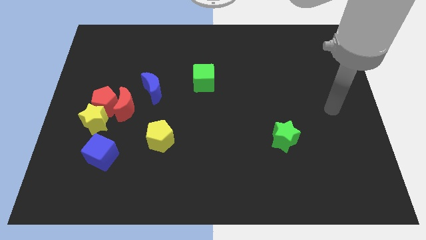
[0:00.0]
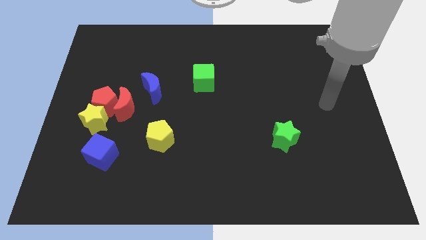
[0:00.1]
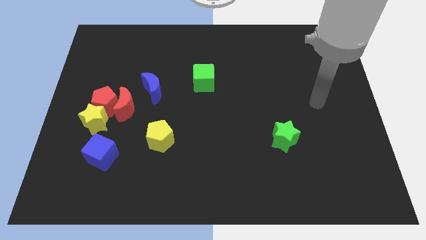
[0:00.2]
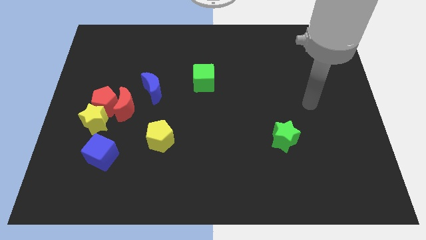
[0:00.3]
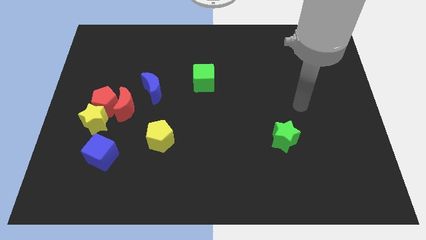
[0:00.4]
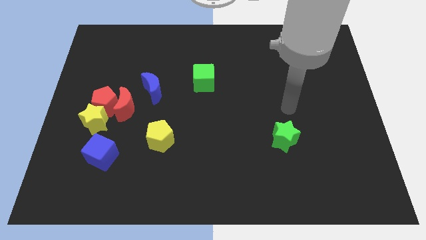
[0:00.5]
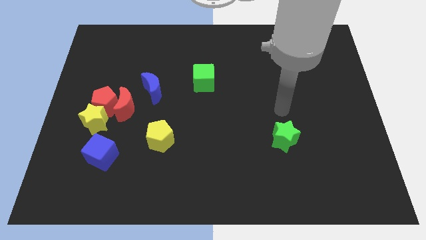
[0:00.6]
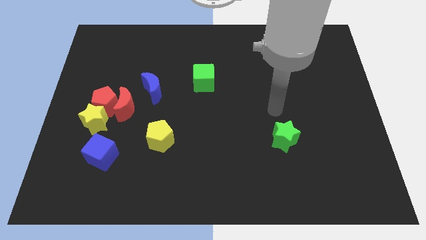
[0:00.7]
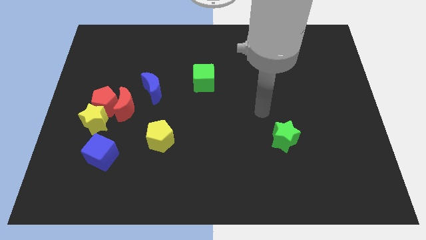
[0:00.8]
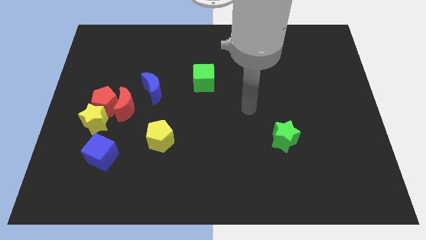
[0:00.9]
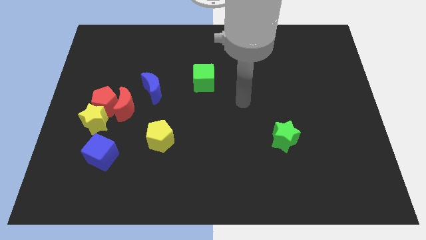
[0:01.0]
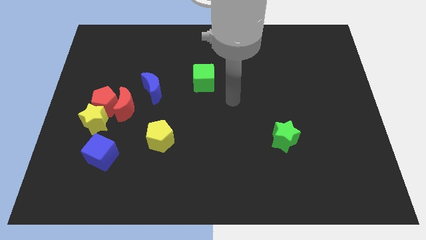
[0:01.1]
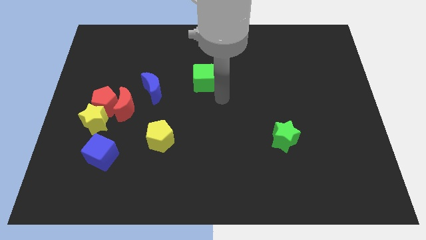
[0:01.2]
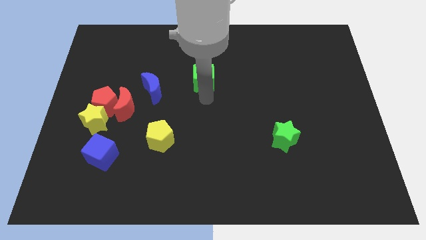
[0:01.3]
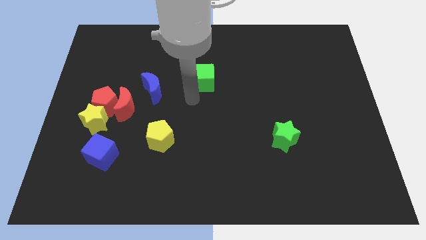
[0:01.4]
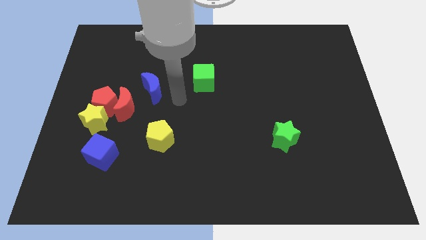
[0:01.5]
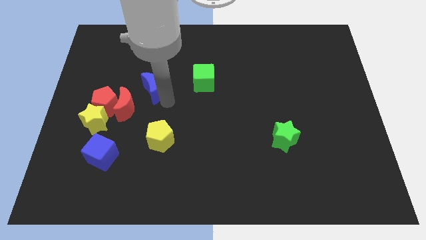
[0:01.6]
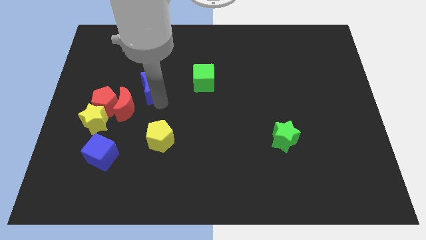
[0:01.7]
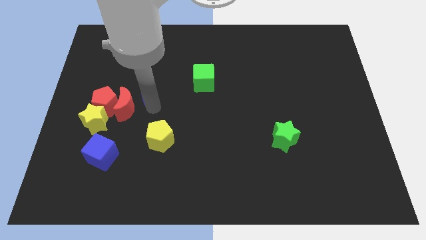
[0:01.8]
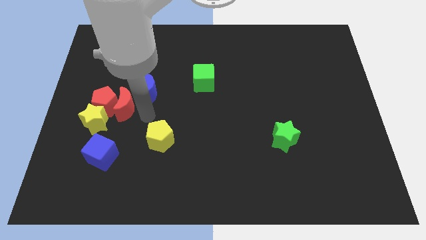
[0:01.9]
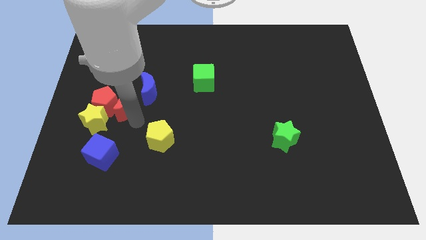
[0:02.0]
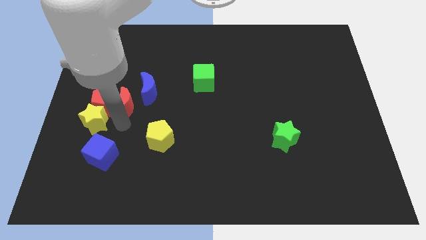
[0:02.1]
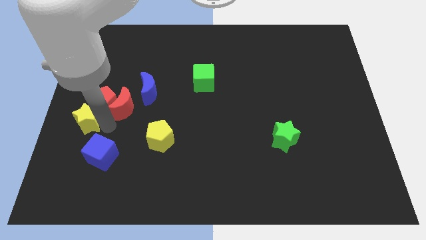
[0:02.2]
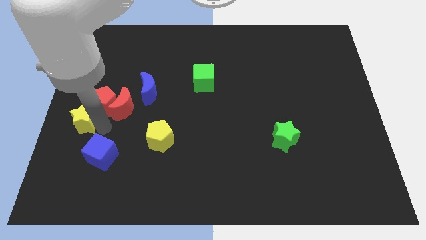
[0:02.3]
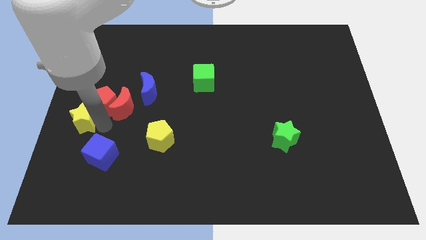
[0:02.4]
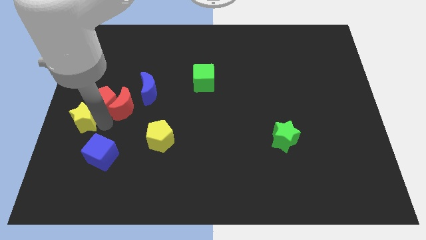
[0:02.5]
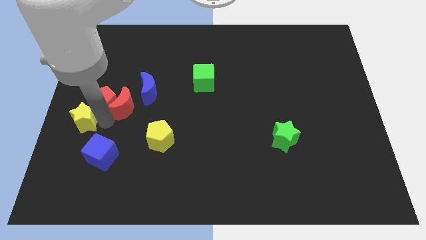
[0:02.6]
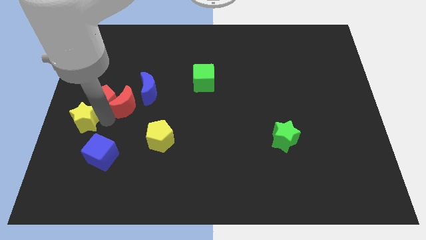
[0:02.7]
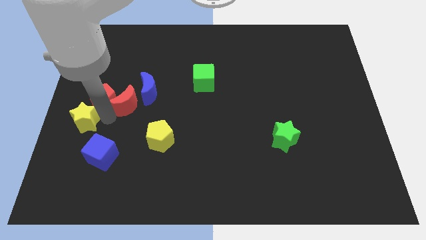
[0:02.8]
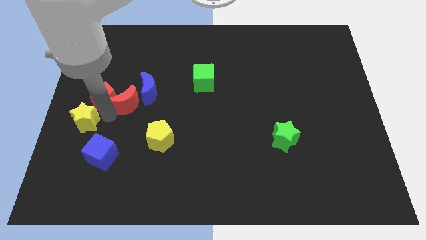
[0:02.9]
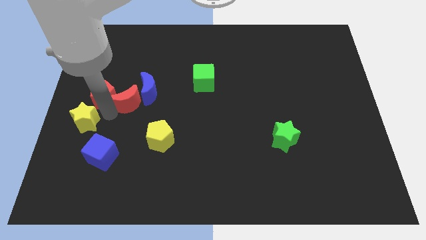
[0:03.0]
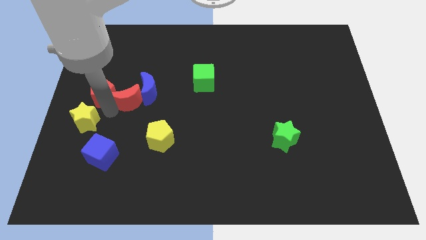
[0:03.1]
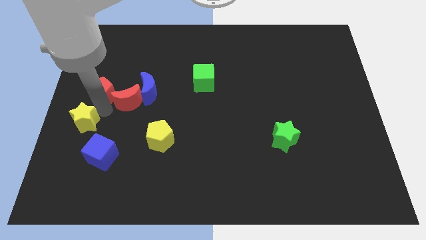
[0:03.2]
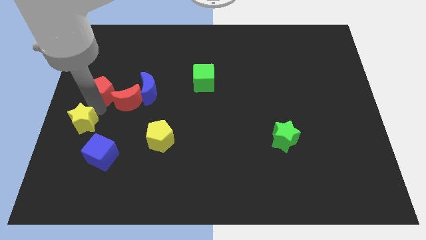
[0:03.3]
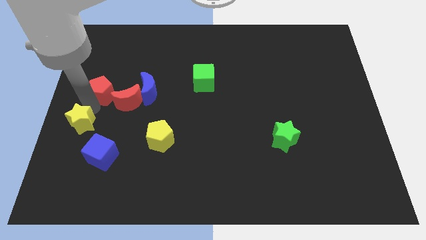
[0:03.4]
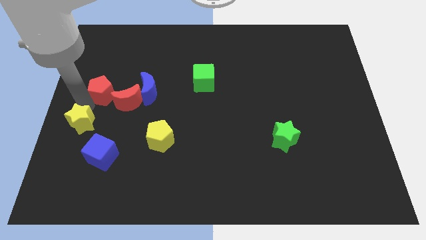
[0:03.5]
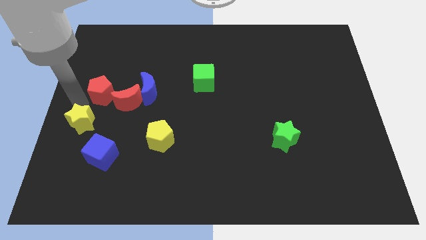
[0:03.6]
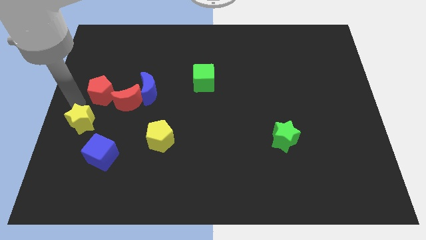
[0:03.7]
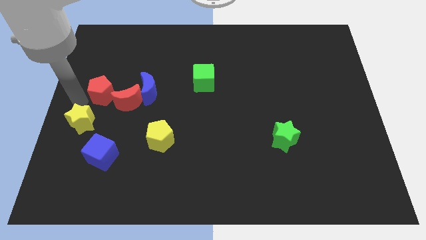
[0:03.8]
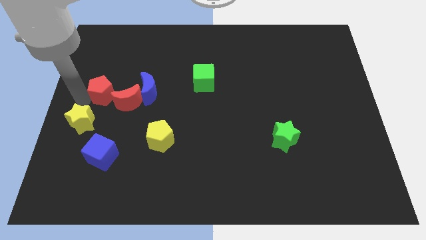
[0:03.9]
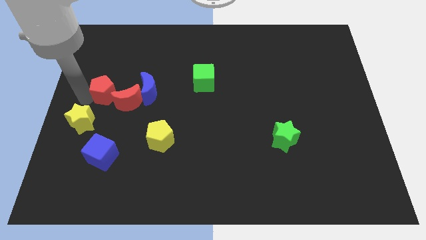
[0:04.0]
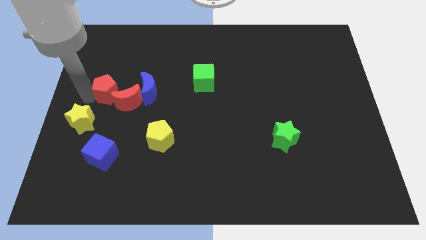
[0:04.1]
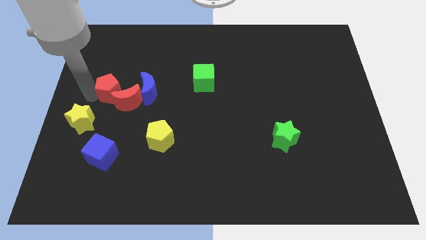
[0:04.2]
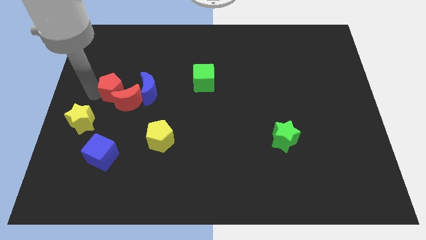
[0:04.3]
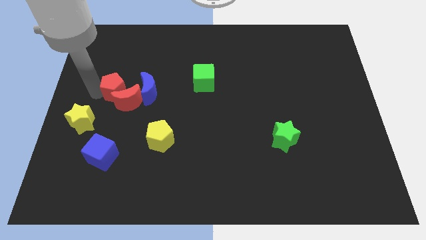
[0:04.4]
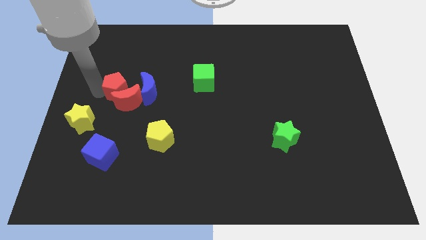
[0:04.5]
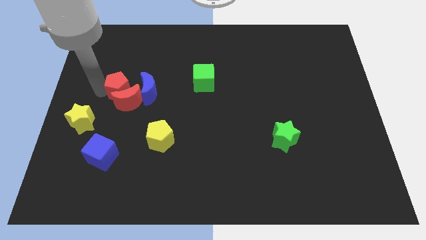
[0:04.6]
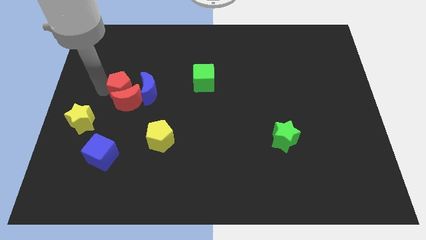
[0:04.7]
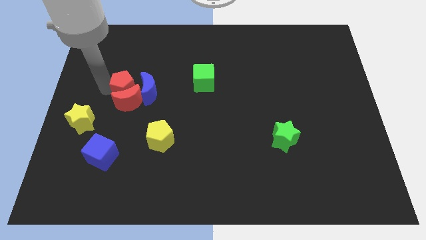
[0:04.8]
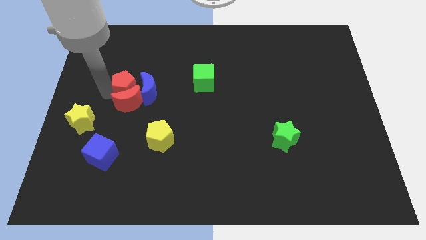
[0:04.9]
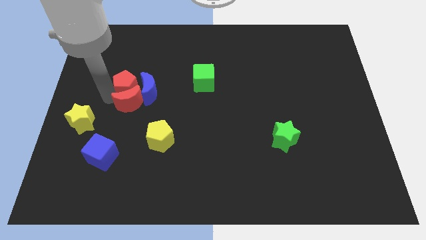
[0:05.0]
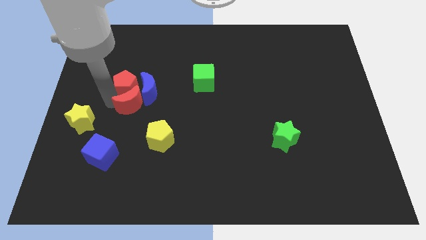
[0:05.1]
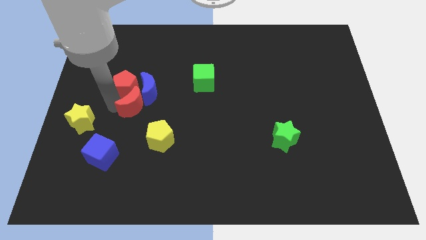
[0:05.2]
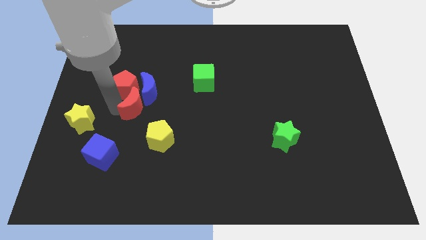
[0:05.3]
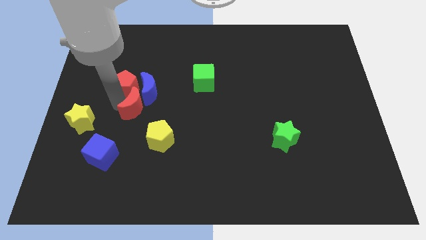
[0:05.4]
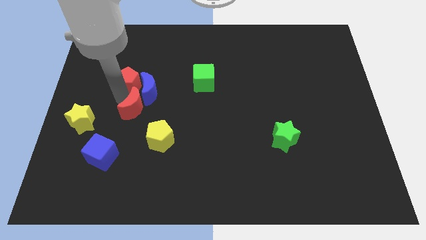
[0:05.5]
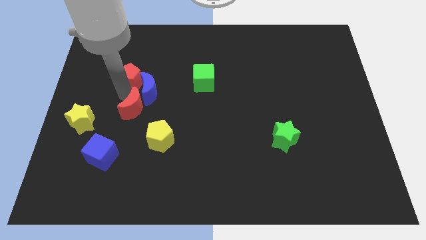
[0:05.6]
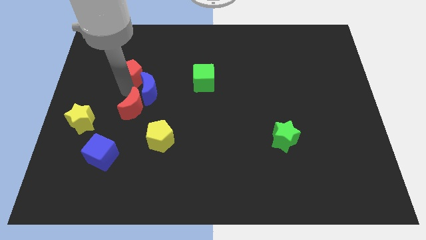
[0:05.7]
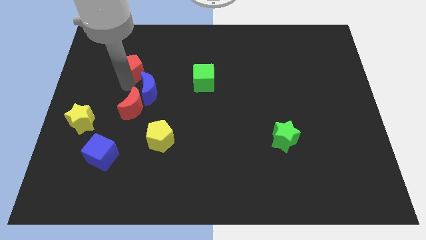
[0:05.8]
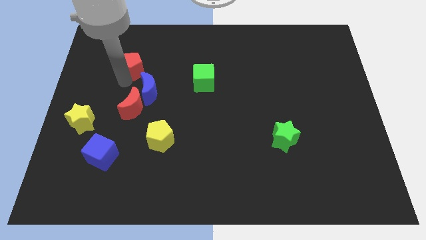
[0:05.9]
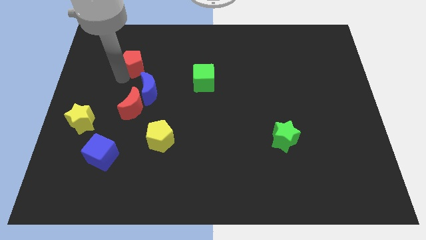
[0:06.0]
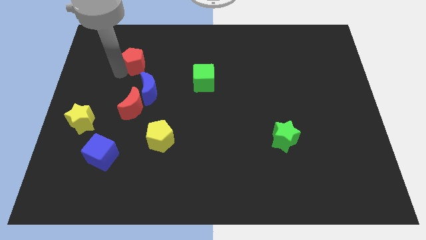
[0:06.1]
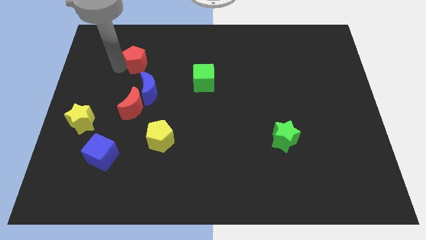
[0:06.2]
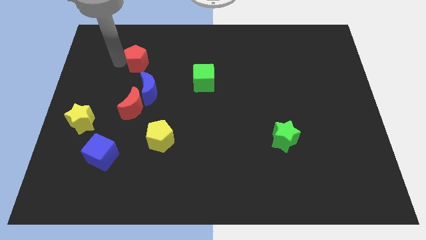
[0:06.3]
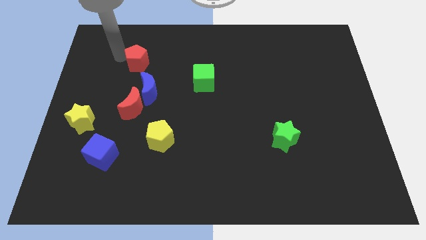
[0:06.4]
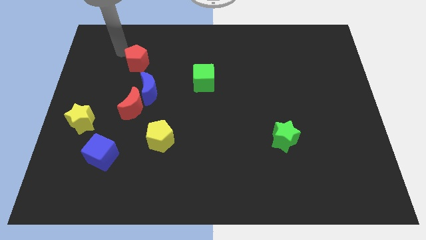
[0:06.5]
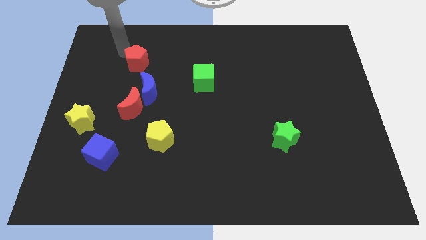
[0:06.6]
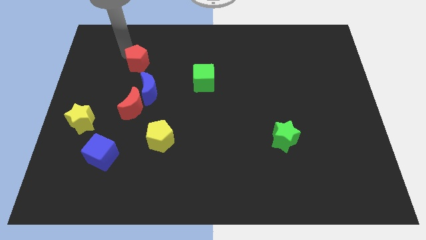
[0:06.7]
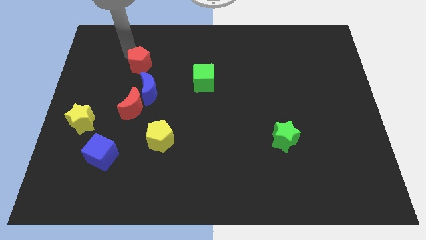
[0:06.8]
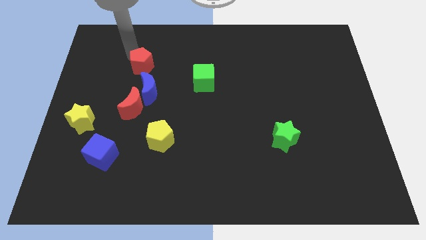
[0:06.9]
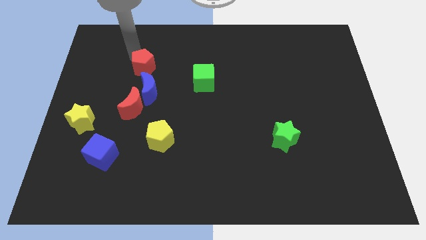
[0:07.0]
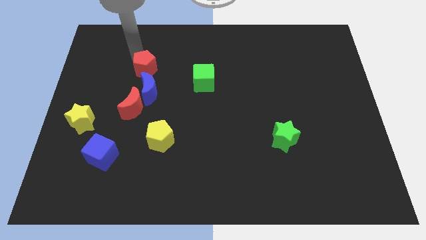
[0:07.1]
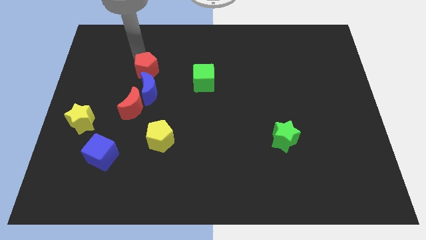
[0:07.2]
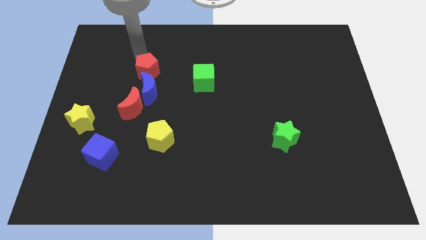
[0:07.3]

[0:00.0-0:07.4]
slide the red pentagon just left of the green cube
